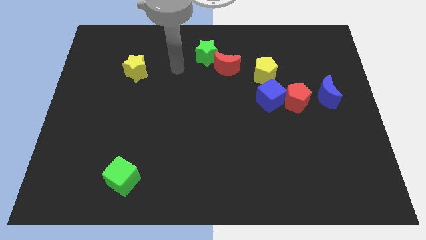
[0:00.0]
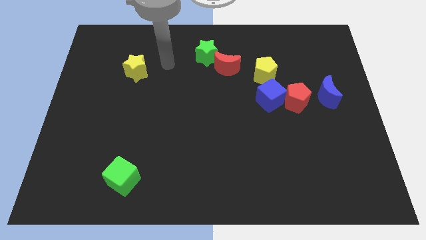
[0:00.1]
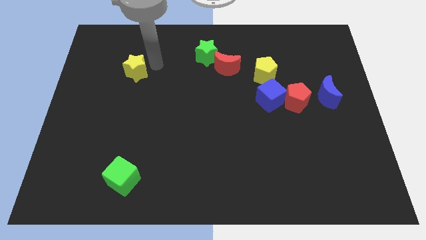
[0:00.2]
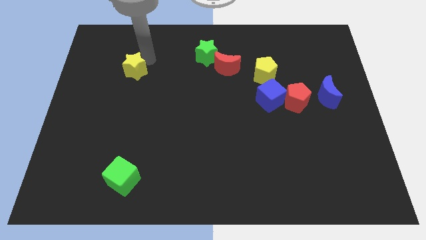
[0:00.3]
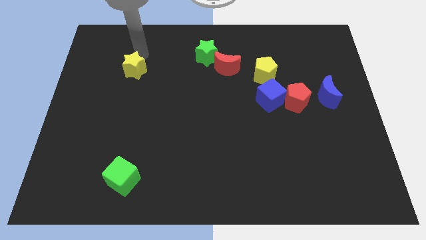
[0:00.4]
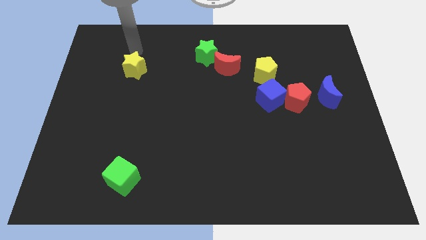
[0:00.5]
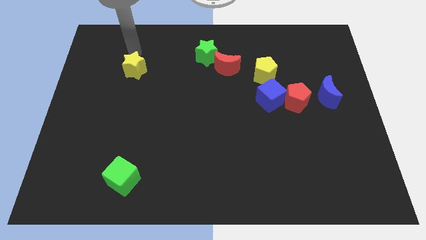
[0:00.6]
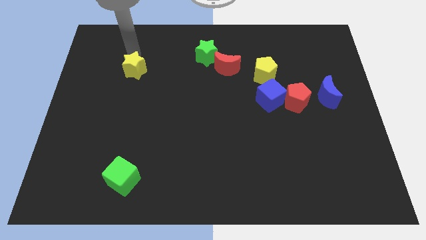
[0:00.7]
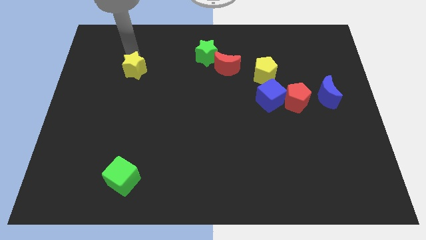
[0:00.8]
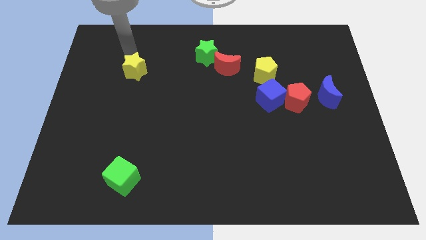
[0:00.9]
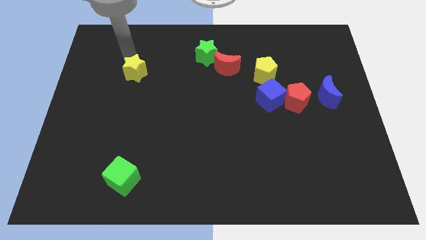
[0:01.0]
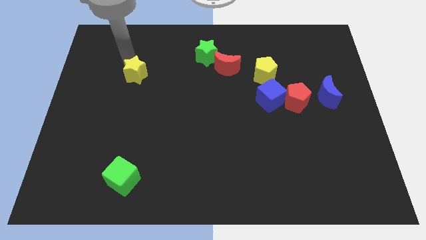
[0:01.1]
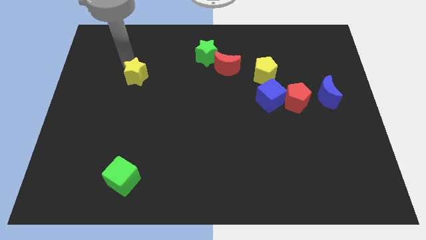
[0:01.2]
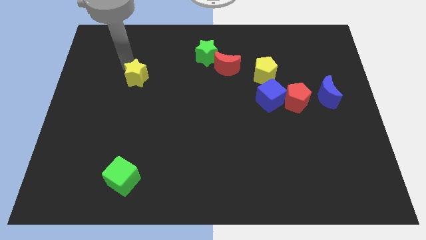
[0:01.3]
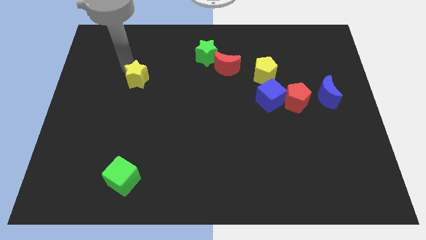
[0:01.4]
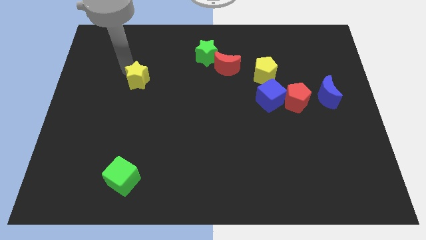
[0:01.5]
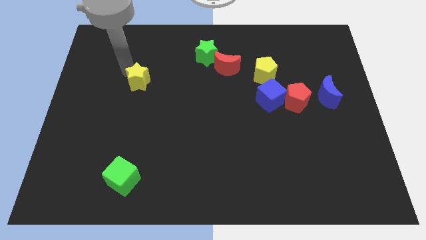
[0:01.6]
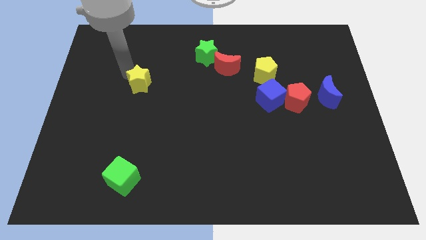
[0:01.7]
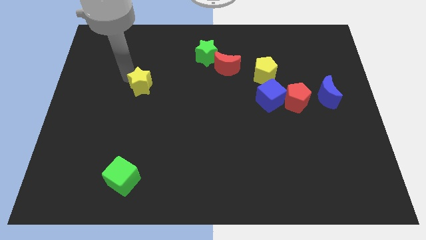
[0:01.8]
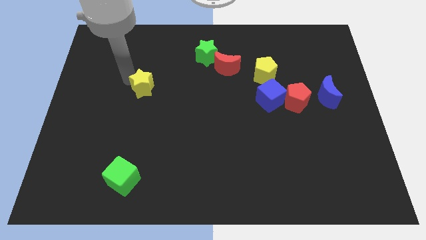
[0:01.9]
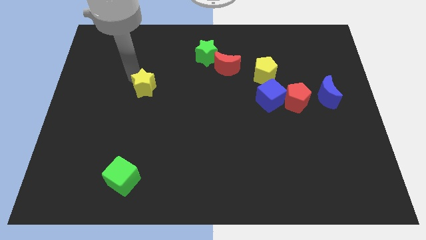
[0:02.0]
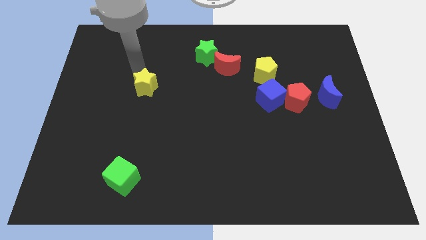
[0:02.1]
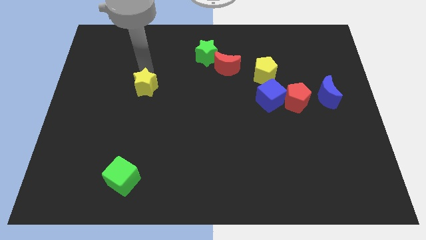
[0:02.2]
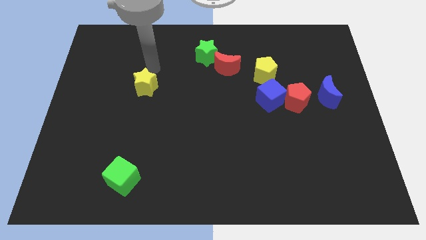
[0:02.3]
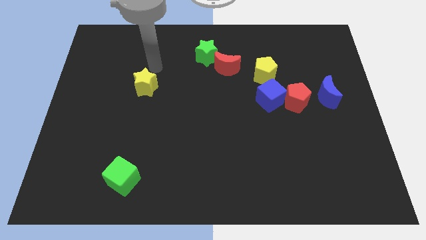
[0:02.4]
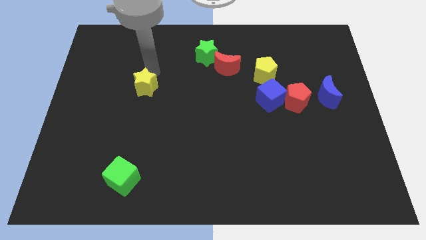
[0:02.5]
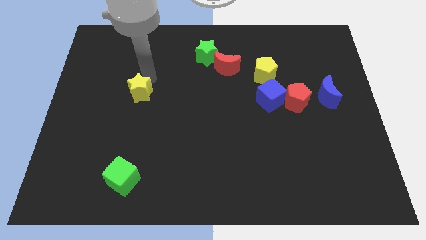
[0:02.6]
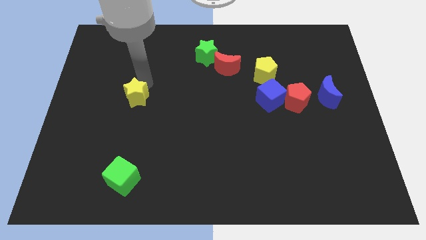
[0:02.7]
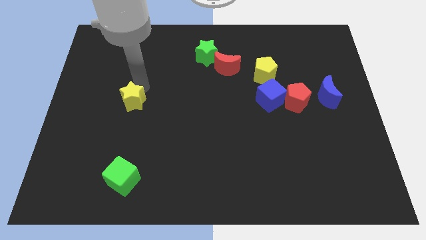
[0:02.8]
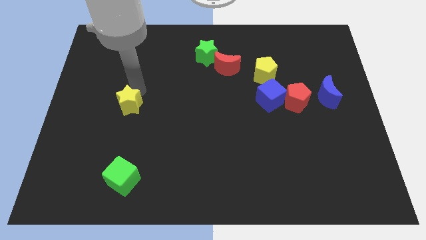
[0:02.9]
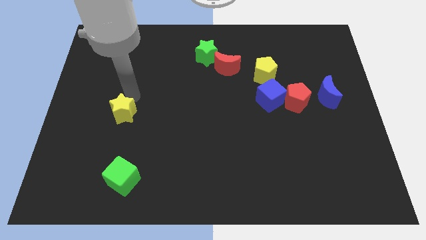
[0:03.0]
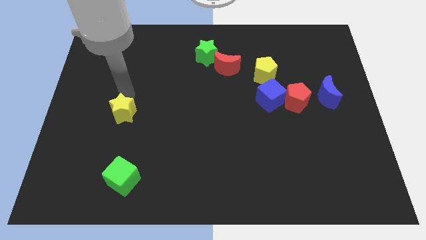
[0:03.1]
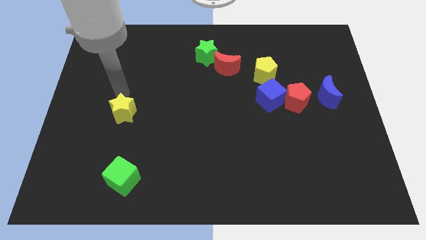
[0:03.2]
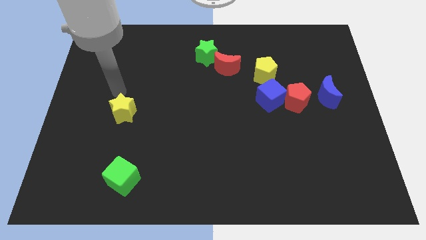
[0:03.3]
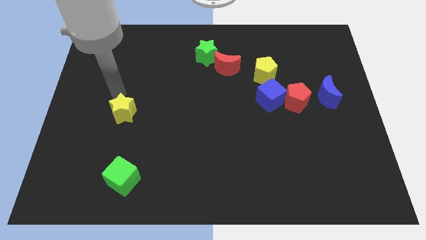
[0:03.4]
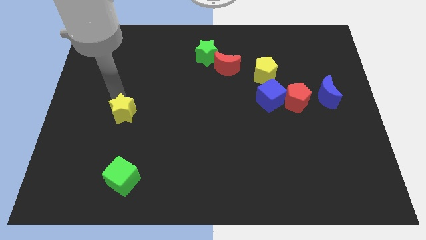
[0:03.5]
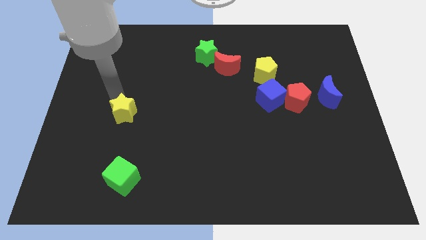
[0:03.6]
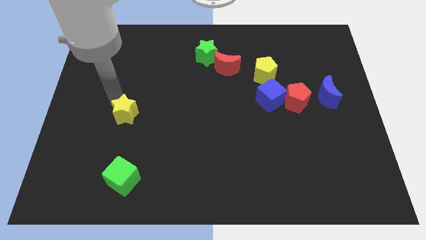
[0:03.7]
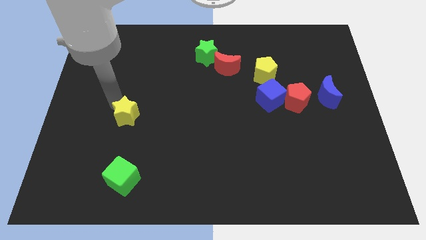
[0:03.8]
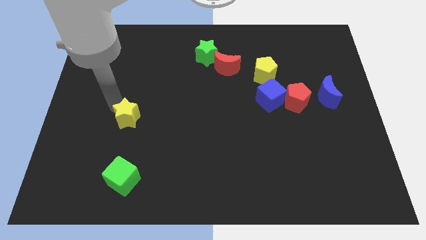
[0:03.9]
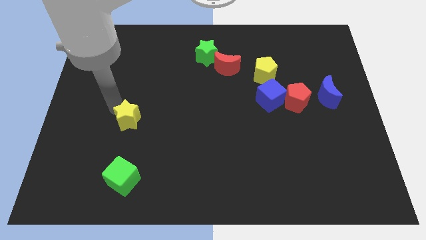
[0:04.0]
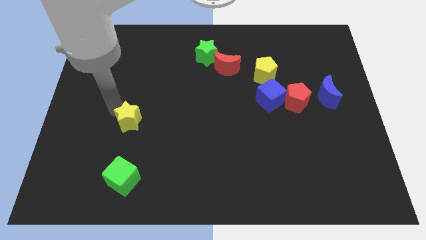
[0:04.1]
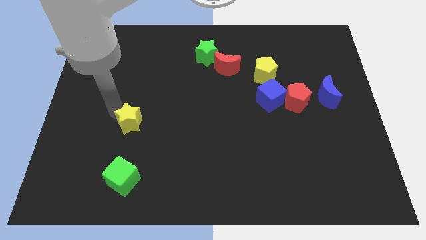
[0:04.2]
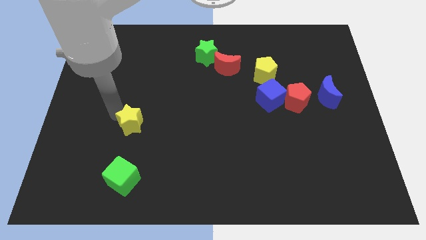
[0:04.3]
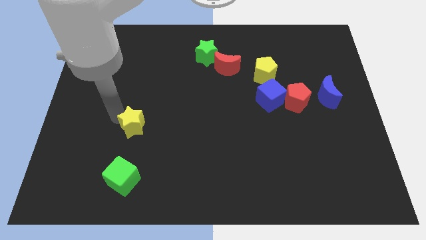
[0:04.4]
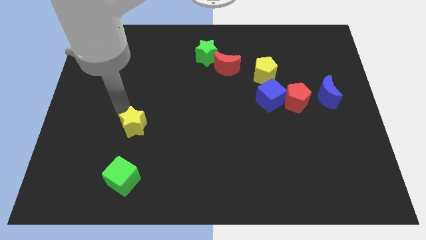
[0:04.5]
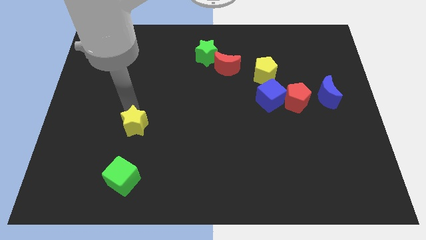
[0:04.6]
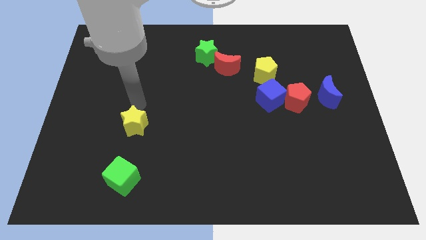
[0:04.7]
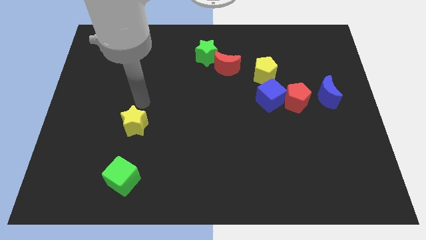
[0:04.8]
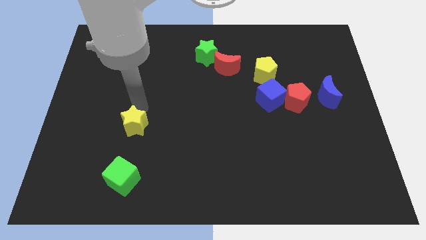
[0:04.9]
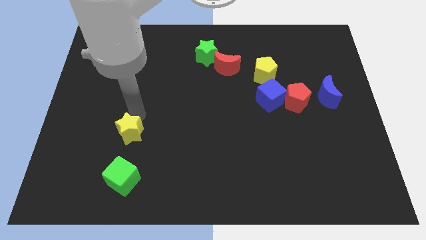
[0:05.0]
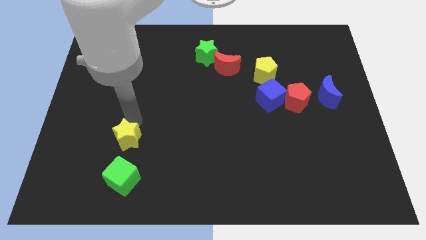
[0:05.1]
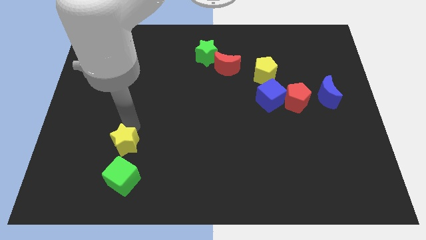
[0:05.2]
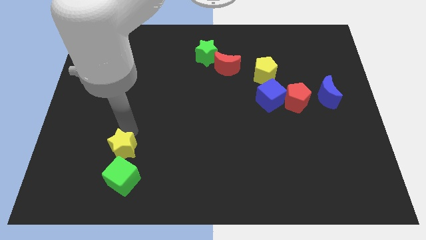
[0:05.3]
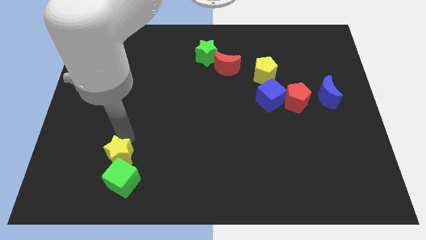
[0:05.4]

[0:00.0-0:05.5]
push the yellow star close to the green cube

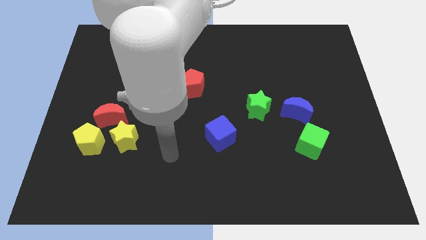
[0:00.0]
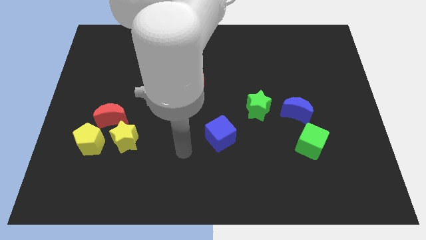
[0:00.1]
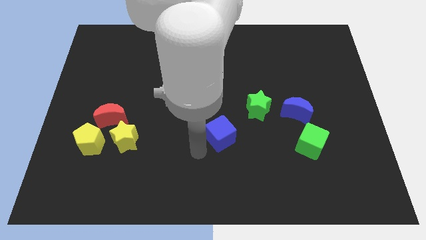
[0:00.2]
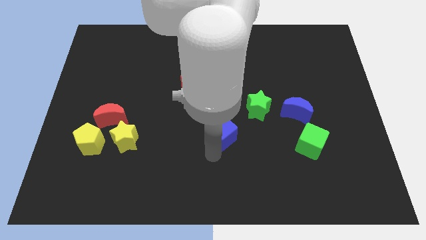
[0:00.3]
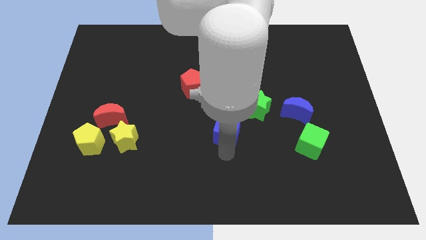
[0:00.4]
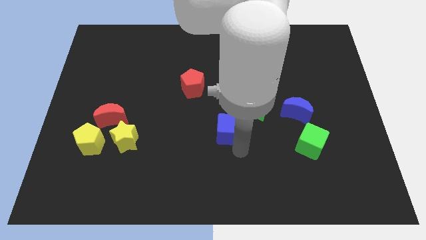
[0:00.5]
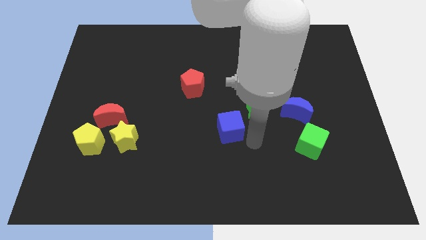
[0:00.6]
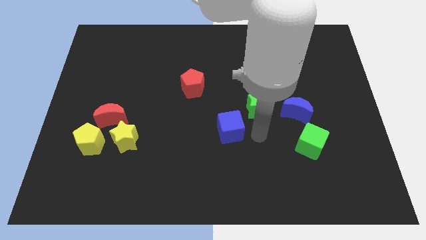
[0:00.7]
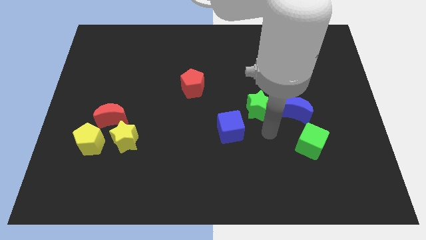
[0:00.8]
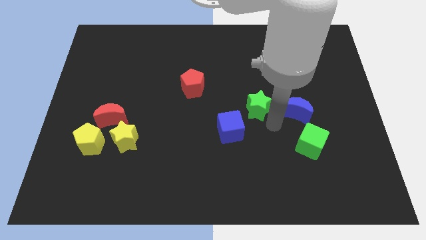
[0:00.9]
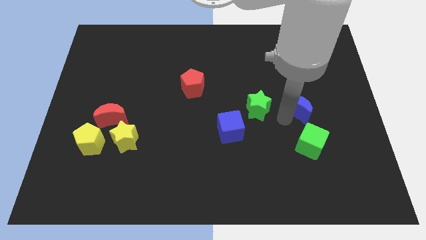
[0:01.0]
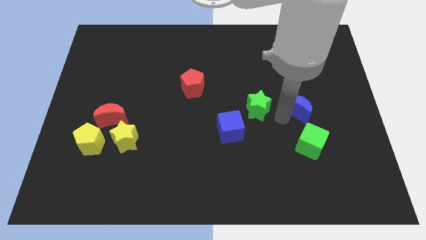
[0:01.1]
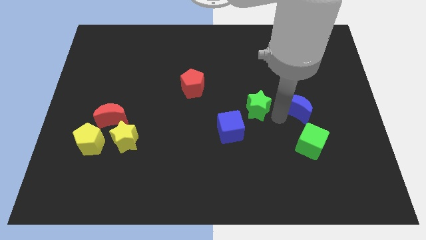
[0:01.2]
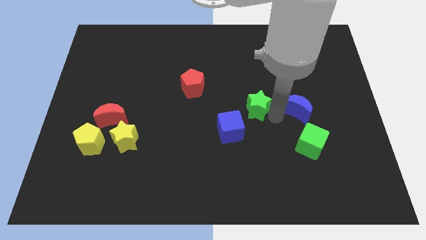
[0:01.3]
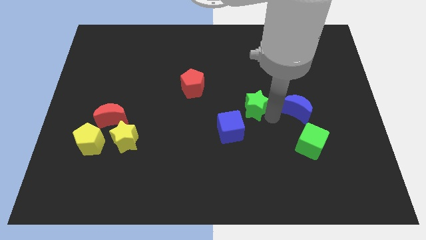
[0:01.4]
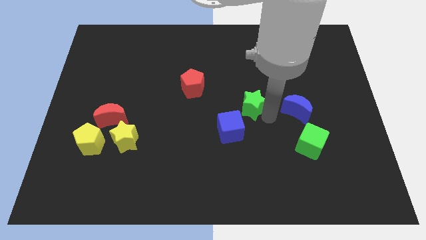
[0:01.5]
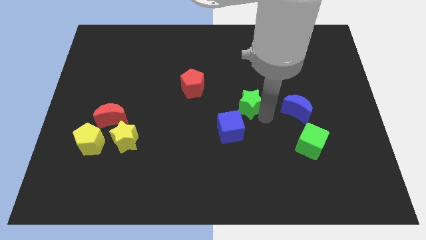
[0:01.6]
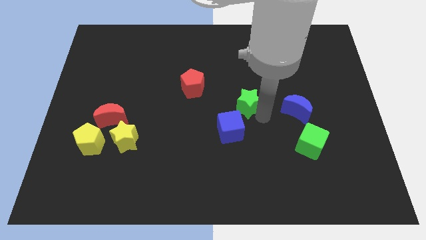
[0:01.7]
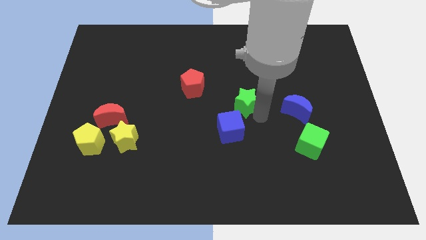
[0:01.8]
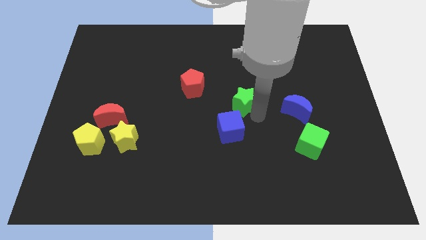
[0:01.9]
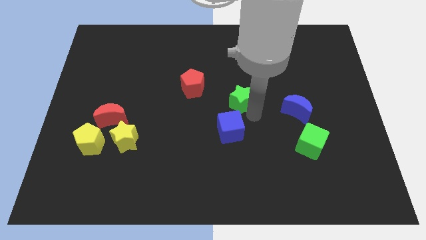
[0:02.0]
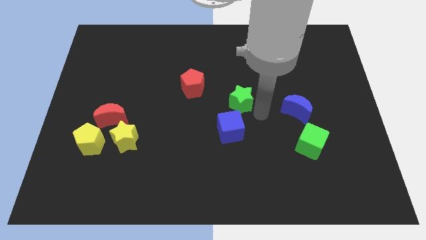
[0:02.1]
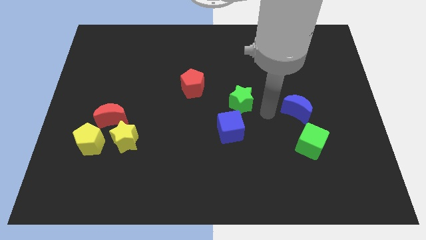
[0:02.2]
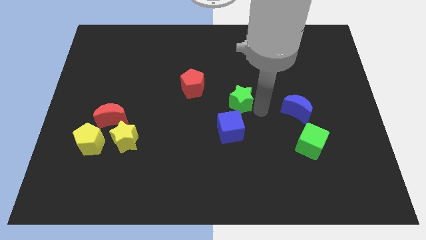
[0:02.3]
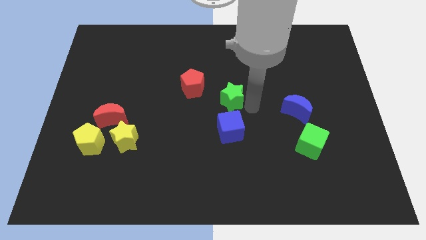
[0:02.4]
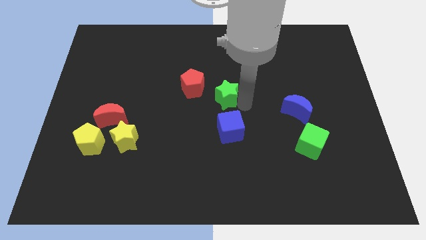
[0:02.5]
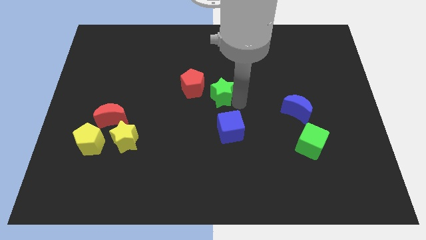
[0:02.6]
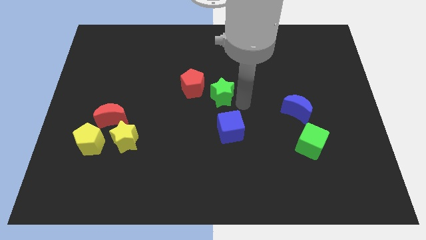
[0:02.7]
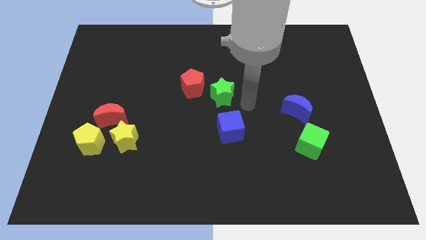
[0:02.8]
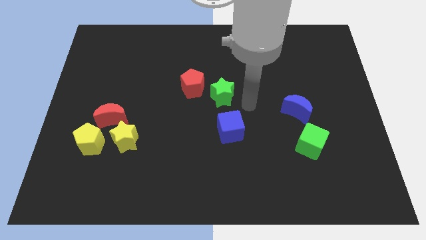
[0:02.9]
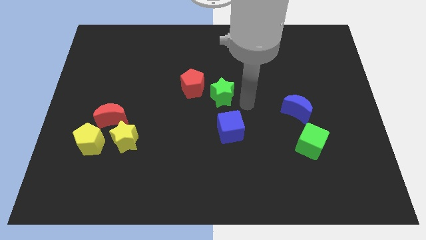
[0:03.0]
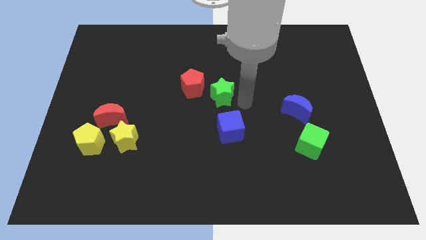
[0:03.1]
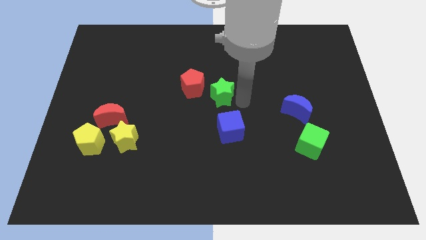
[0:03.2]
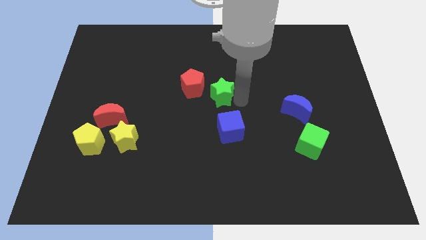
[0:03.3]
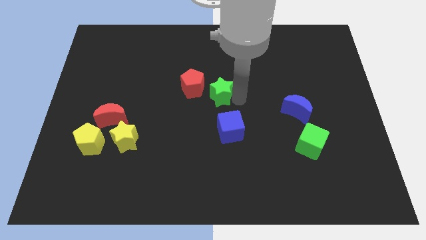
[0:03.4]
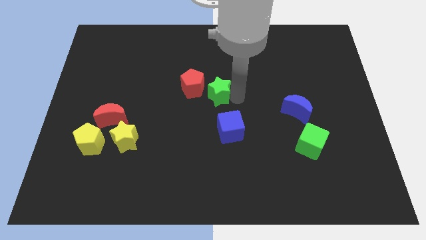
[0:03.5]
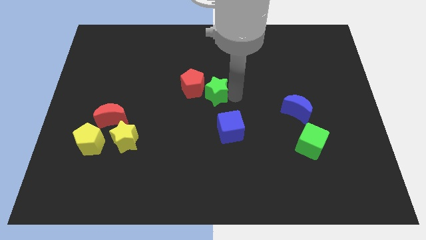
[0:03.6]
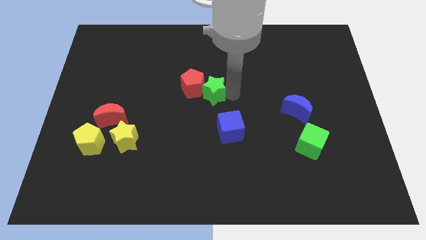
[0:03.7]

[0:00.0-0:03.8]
move the green star towards the red pentagon
